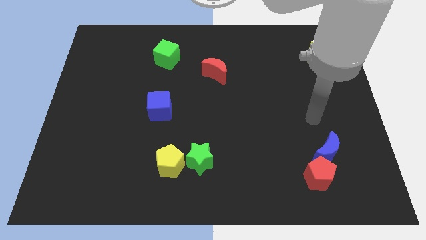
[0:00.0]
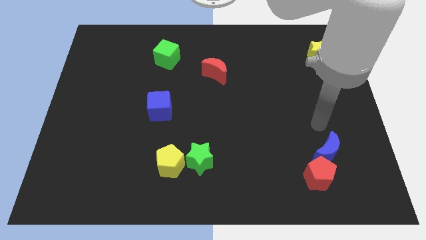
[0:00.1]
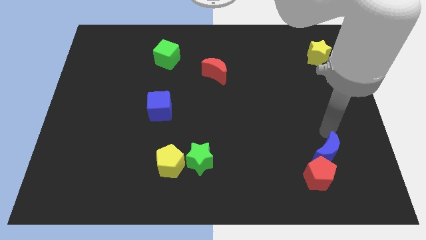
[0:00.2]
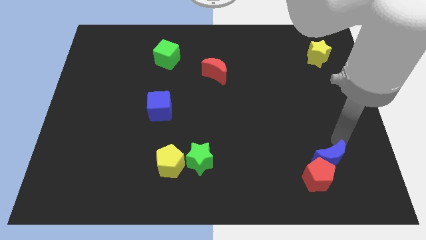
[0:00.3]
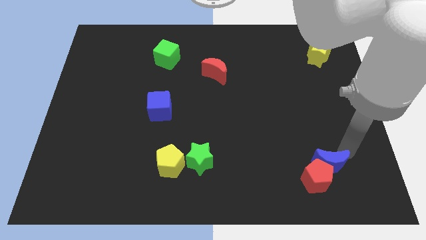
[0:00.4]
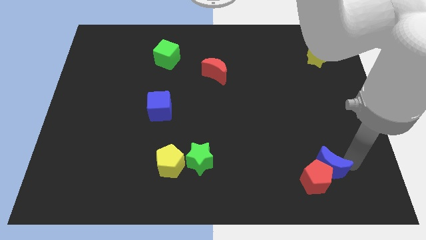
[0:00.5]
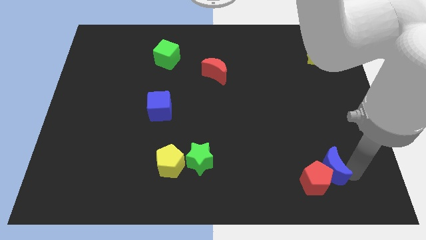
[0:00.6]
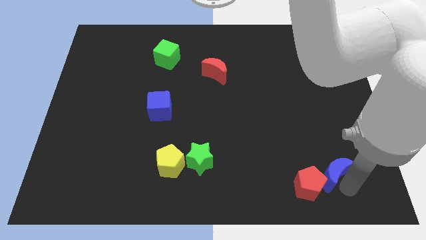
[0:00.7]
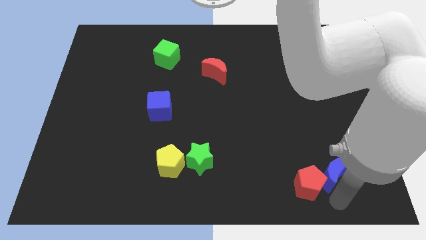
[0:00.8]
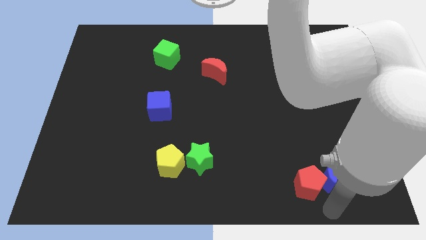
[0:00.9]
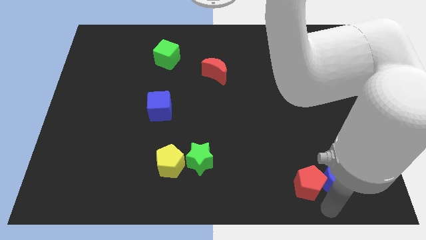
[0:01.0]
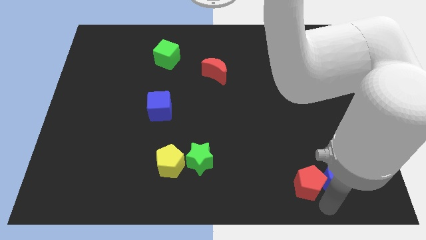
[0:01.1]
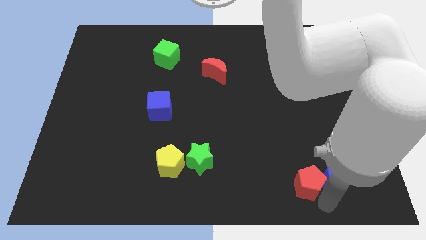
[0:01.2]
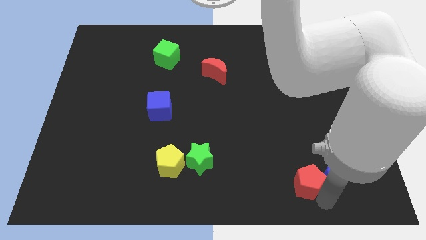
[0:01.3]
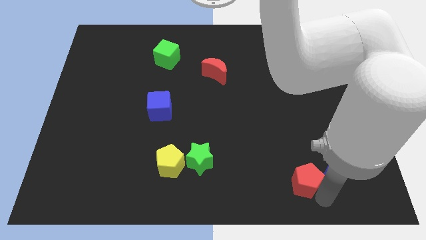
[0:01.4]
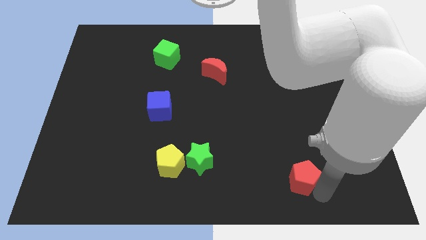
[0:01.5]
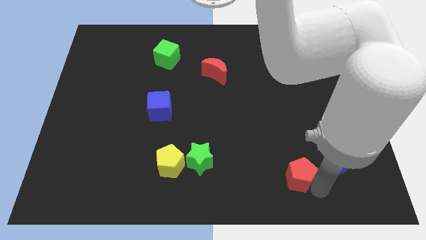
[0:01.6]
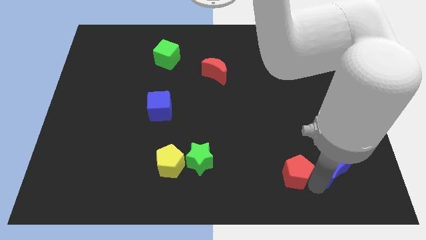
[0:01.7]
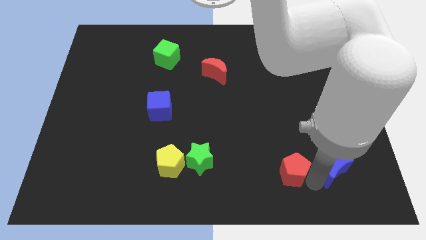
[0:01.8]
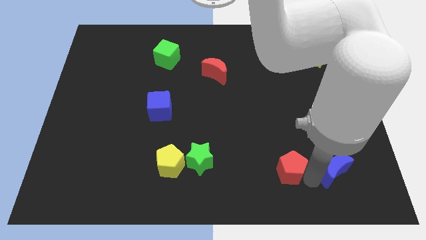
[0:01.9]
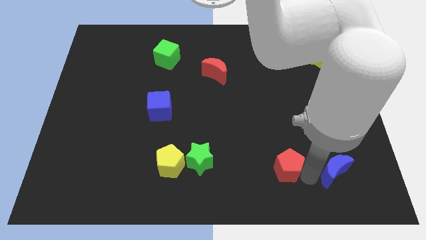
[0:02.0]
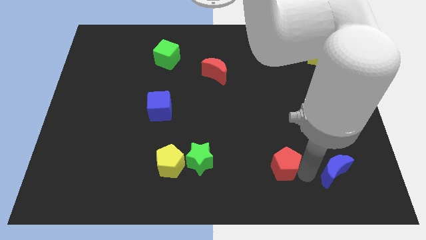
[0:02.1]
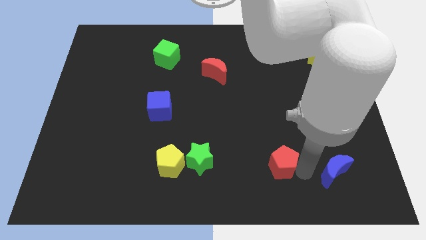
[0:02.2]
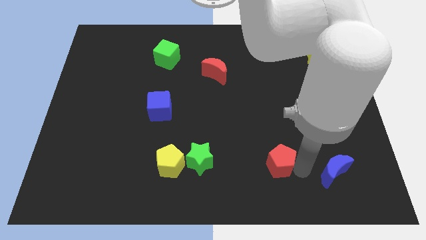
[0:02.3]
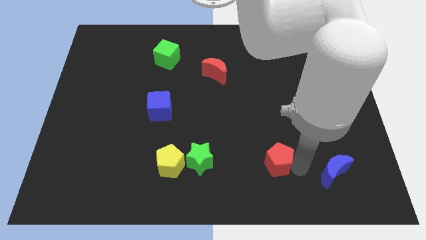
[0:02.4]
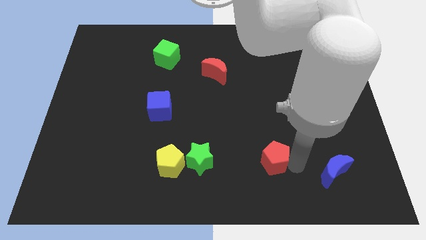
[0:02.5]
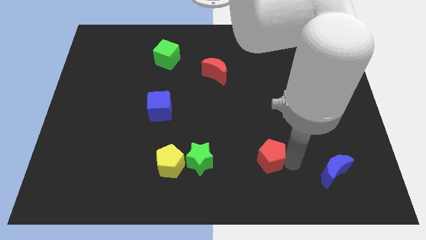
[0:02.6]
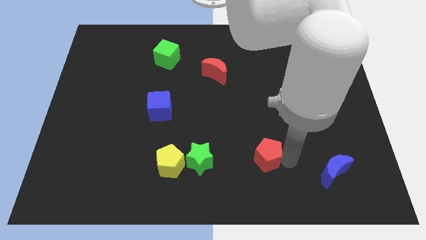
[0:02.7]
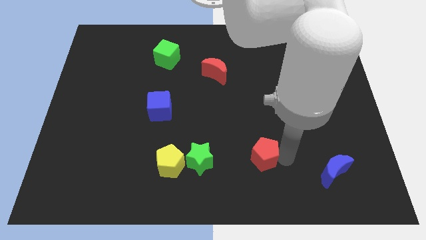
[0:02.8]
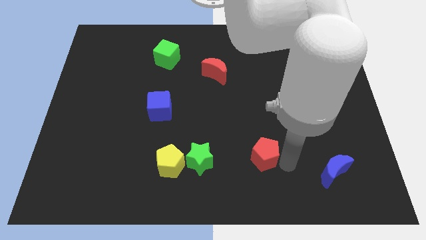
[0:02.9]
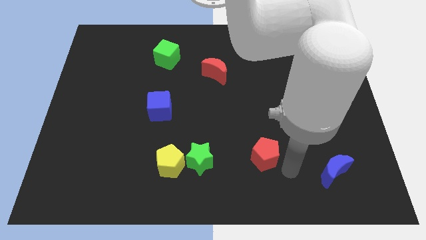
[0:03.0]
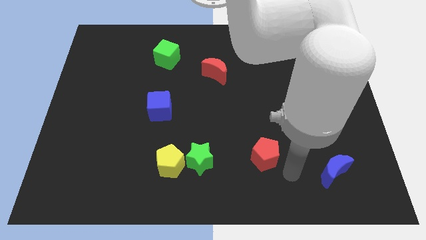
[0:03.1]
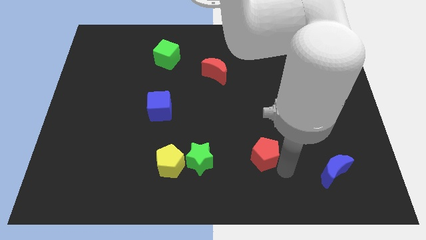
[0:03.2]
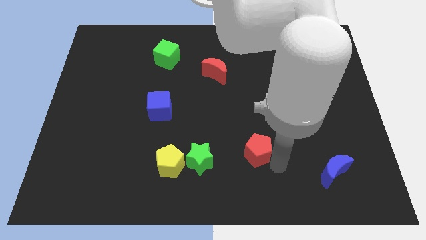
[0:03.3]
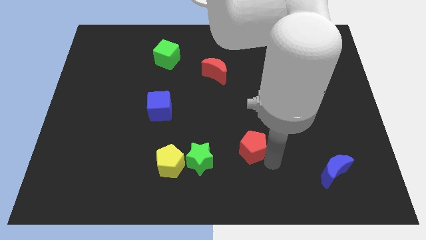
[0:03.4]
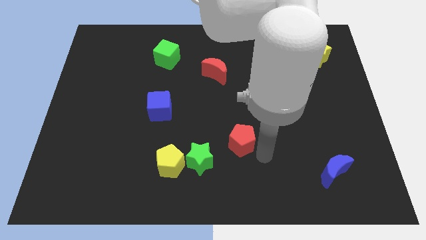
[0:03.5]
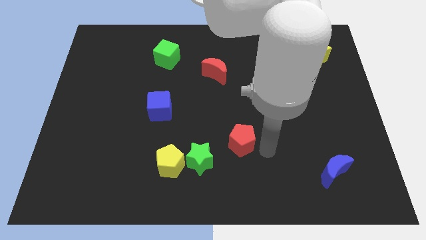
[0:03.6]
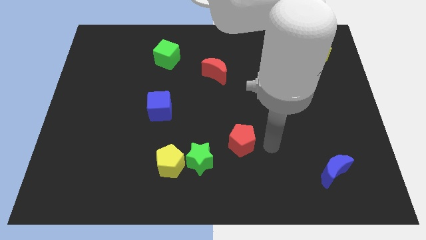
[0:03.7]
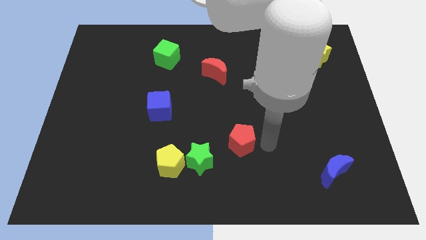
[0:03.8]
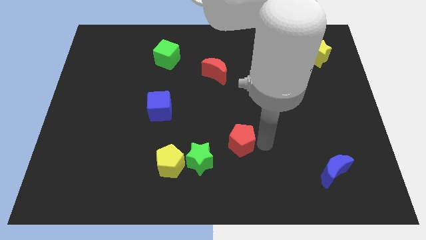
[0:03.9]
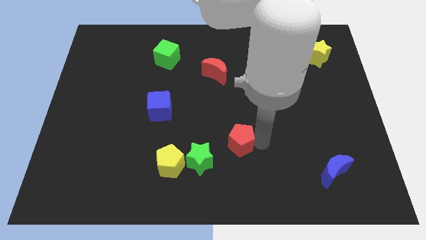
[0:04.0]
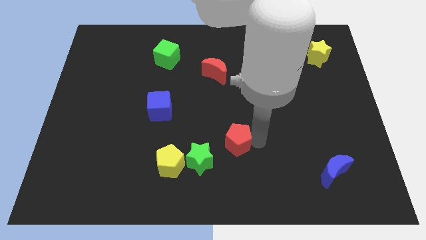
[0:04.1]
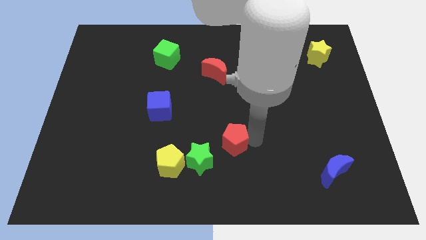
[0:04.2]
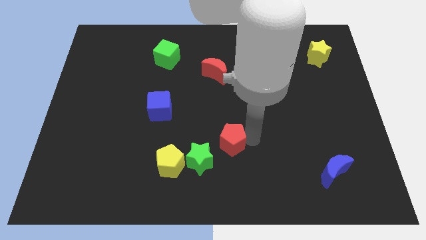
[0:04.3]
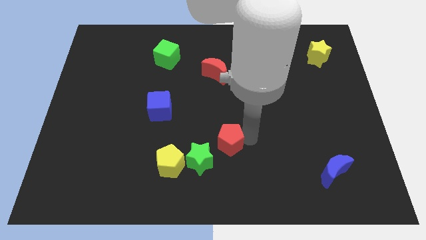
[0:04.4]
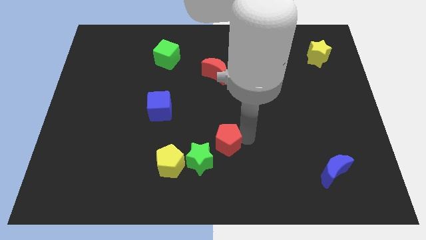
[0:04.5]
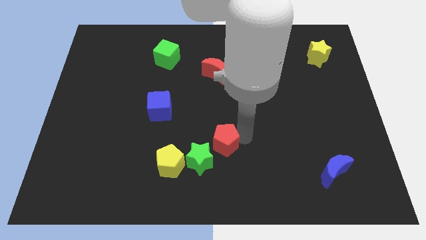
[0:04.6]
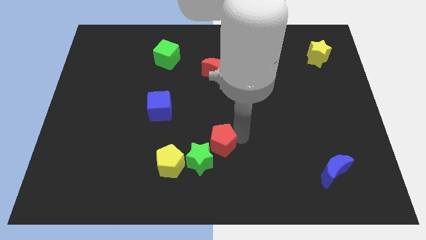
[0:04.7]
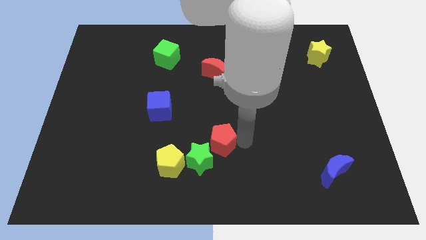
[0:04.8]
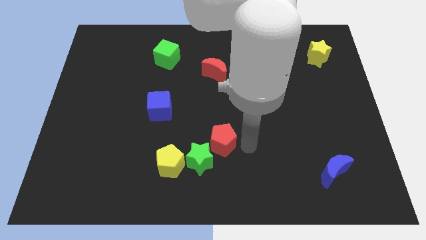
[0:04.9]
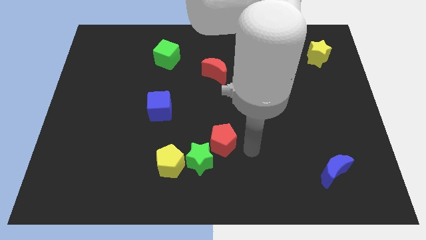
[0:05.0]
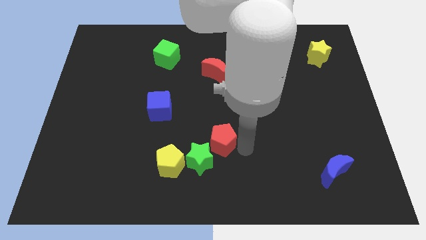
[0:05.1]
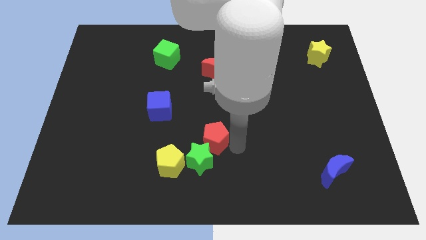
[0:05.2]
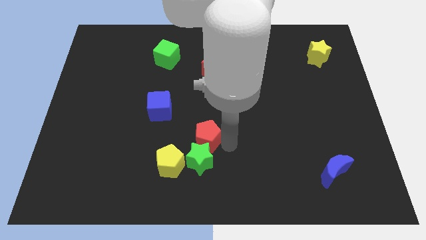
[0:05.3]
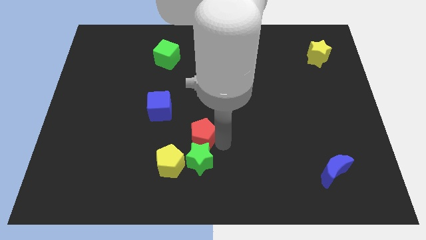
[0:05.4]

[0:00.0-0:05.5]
slide the red pentagon diagonally down and to the right of the blue cube

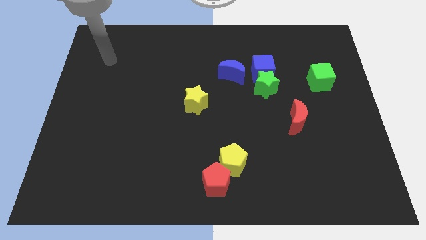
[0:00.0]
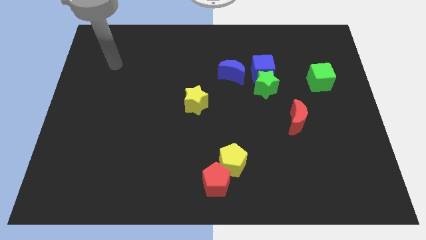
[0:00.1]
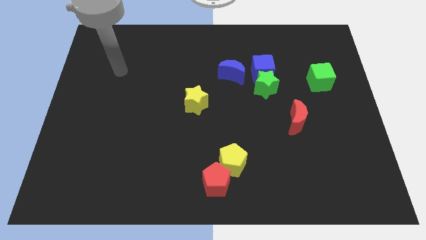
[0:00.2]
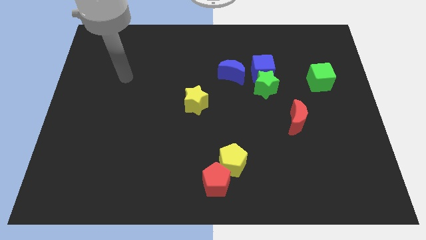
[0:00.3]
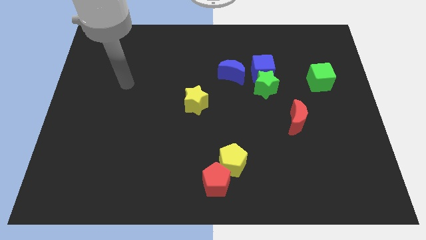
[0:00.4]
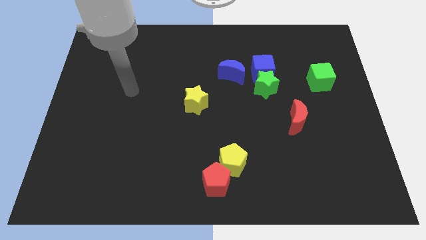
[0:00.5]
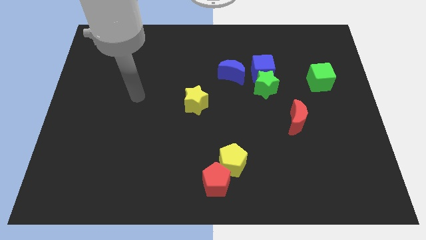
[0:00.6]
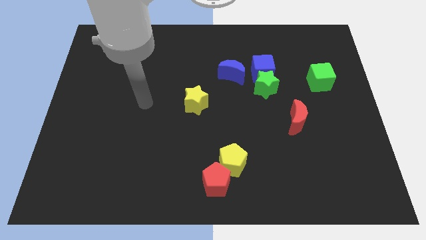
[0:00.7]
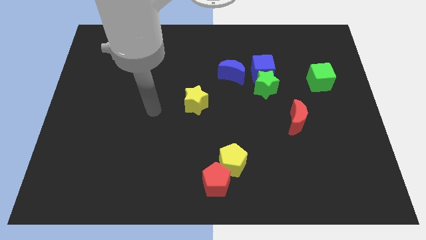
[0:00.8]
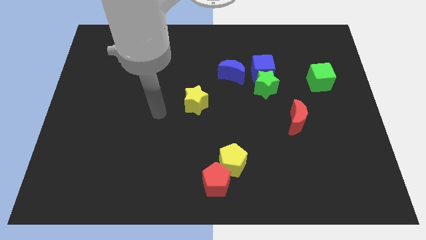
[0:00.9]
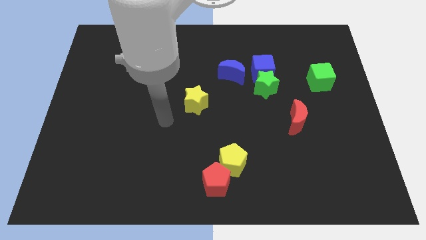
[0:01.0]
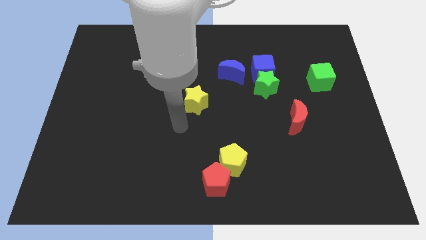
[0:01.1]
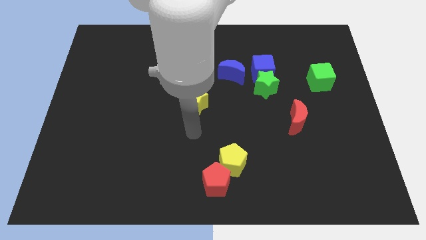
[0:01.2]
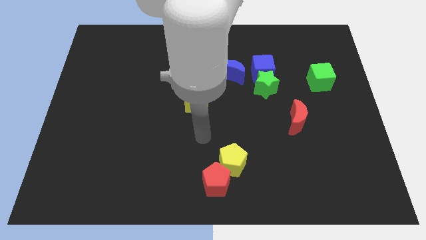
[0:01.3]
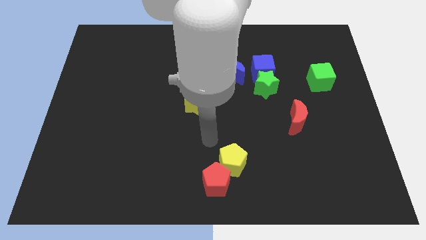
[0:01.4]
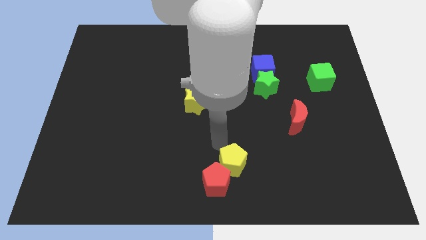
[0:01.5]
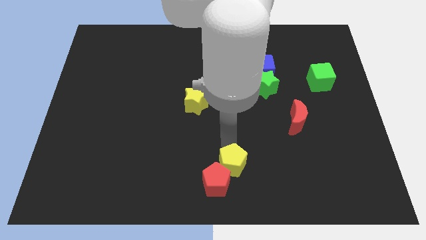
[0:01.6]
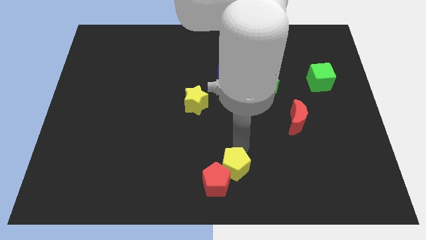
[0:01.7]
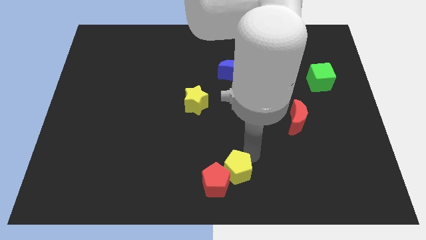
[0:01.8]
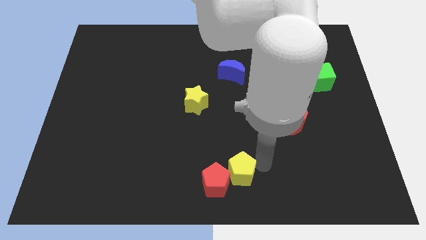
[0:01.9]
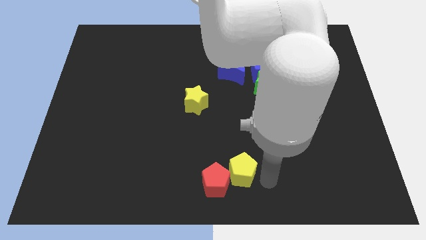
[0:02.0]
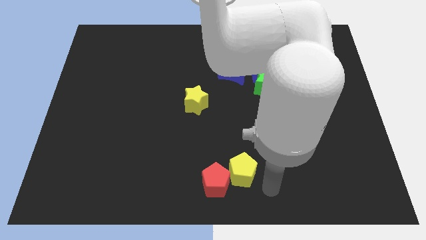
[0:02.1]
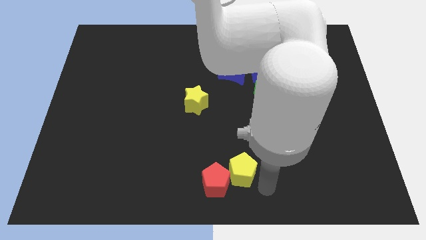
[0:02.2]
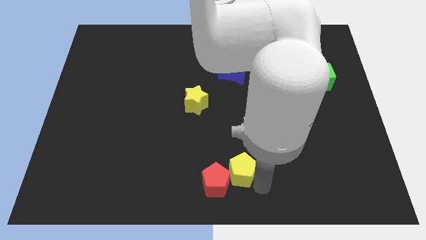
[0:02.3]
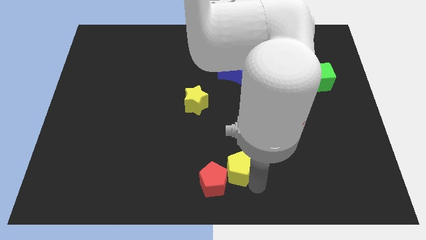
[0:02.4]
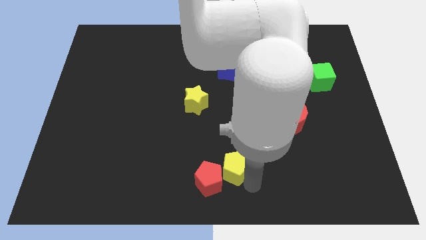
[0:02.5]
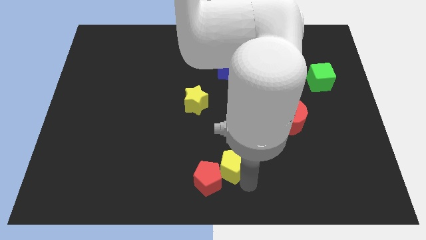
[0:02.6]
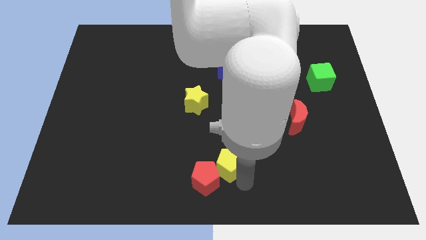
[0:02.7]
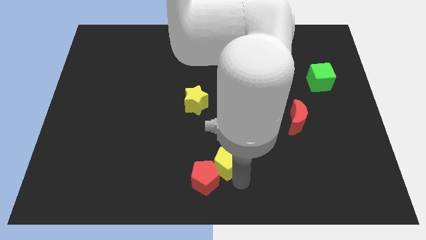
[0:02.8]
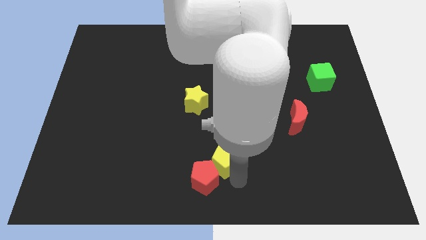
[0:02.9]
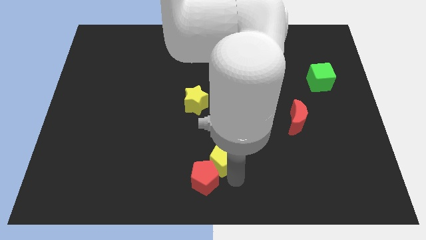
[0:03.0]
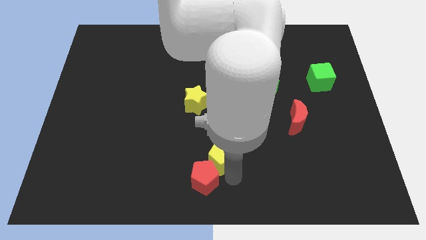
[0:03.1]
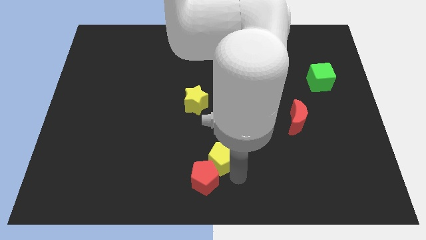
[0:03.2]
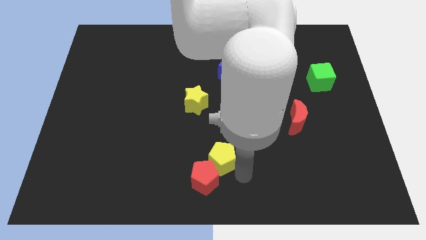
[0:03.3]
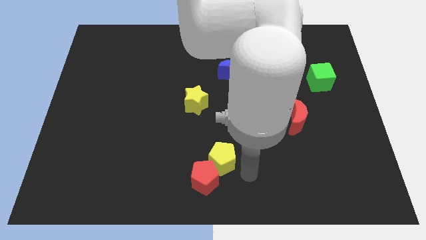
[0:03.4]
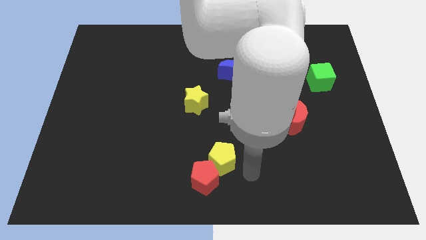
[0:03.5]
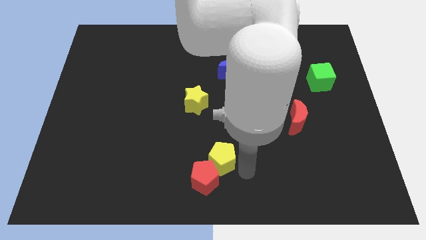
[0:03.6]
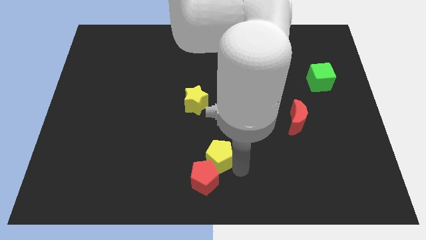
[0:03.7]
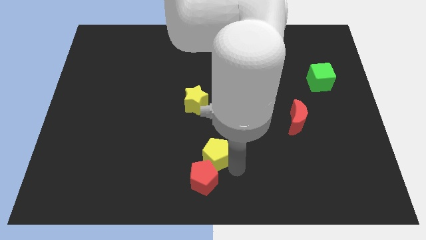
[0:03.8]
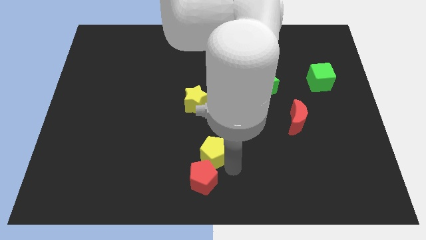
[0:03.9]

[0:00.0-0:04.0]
push the yellow pentagon to the bottom side of the yellow star
